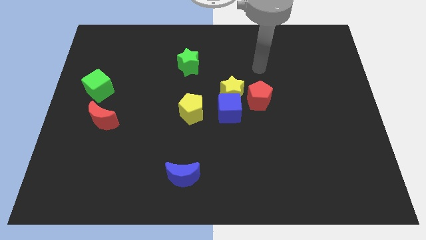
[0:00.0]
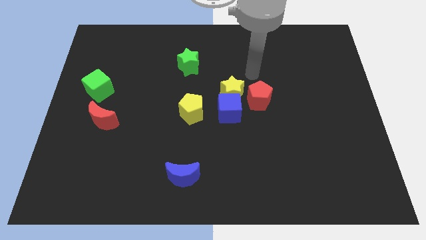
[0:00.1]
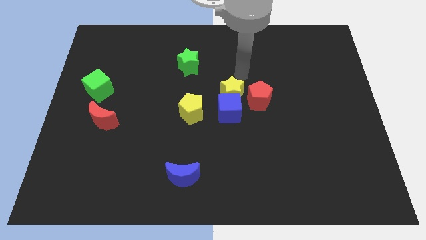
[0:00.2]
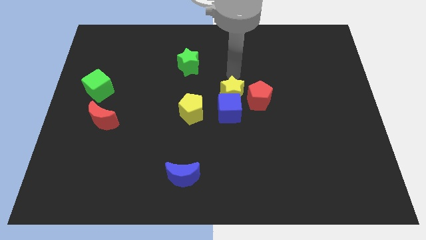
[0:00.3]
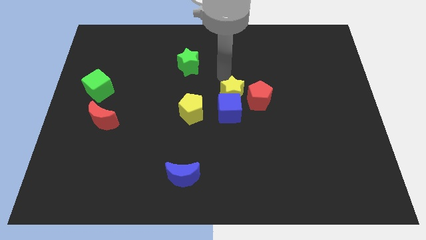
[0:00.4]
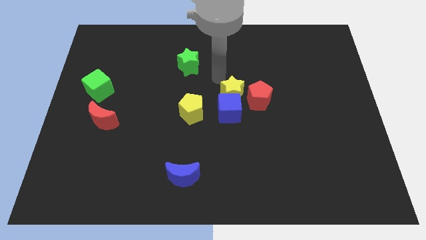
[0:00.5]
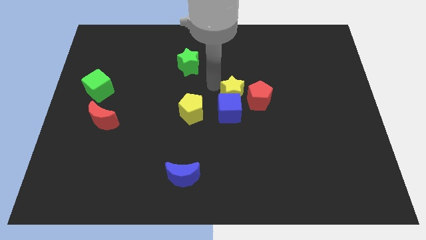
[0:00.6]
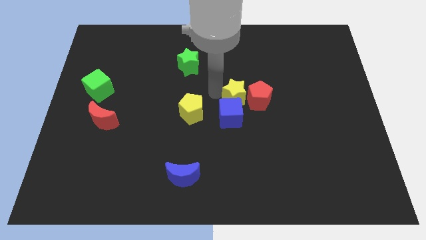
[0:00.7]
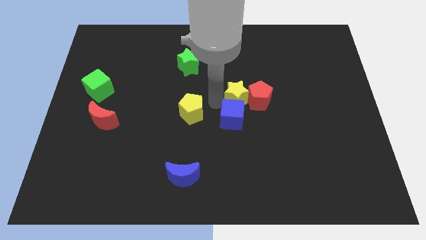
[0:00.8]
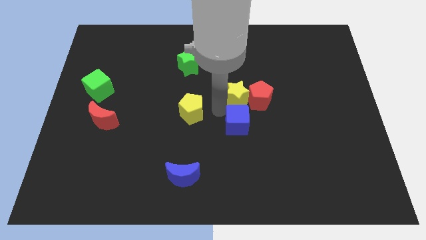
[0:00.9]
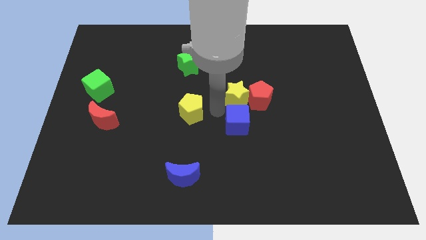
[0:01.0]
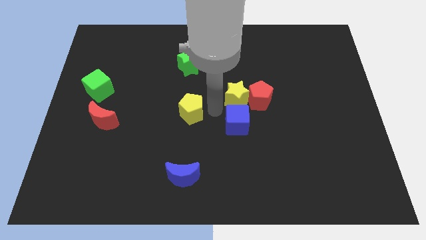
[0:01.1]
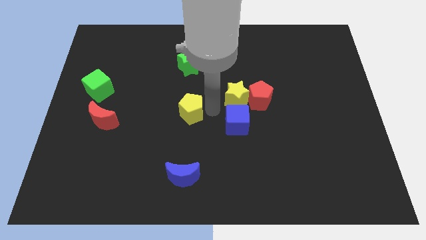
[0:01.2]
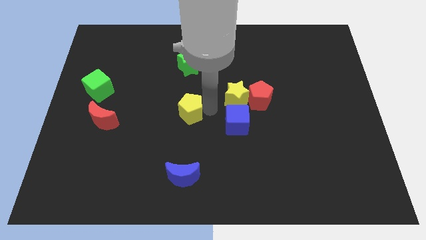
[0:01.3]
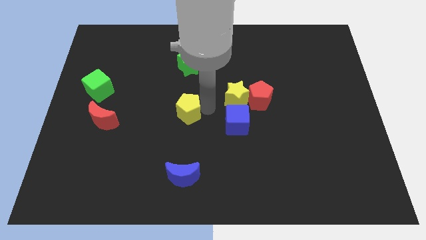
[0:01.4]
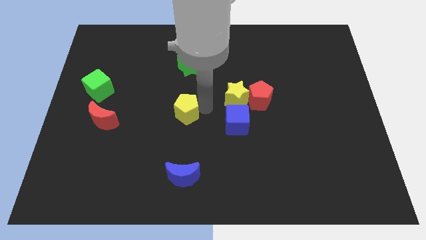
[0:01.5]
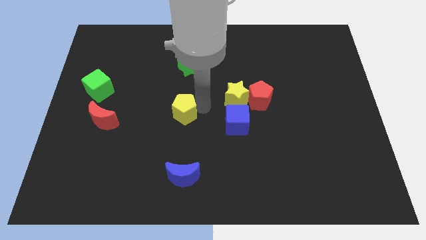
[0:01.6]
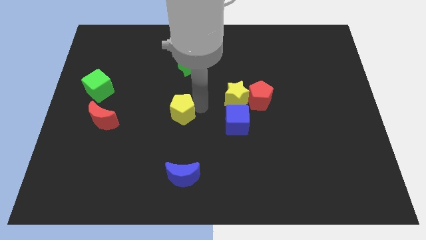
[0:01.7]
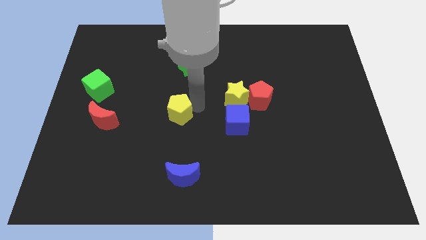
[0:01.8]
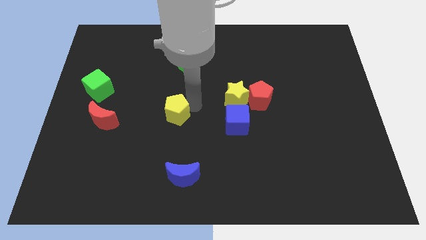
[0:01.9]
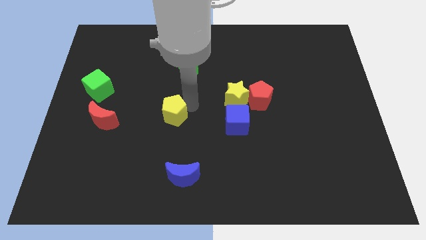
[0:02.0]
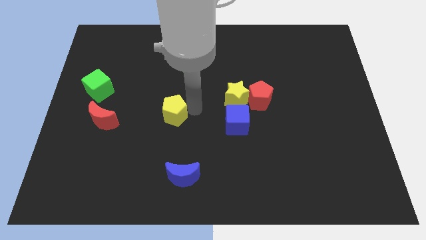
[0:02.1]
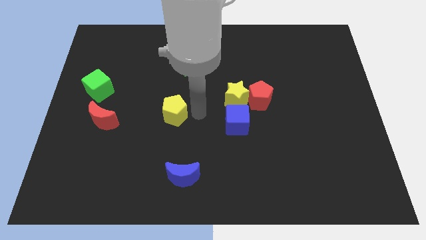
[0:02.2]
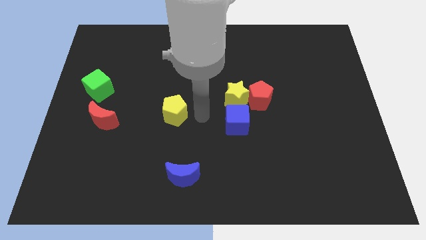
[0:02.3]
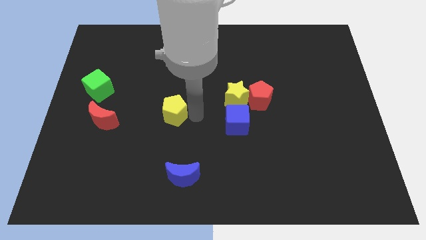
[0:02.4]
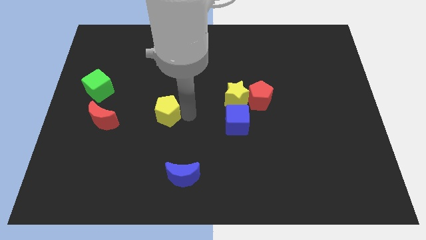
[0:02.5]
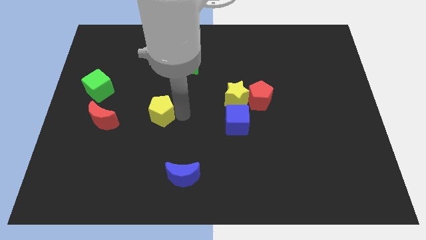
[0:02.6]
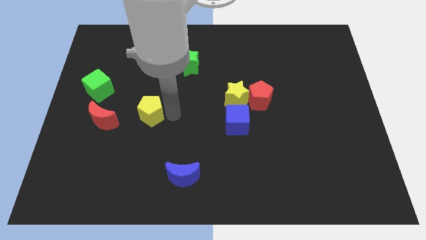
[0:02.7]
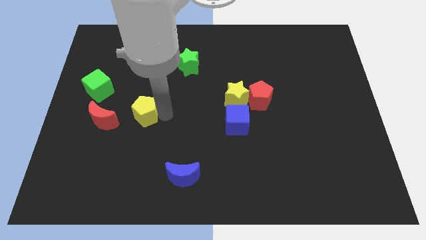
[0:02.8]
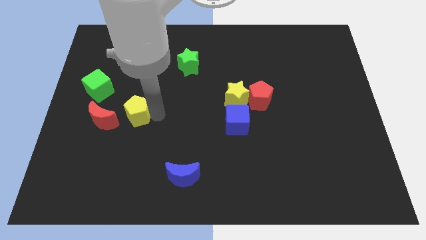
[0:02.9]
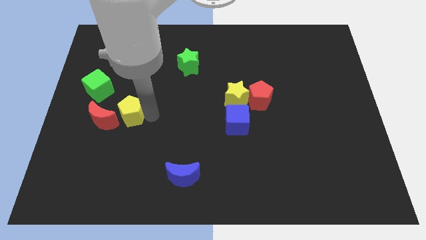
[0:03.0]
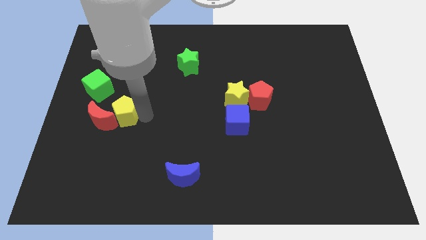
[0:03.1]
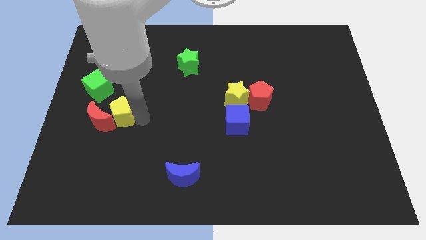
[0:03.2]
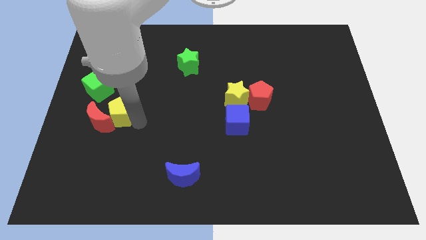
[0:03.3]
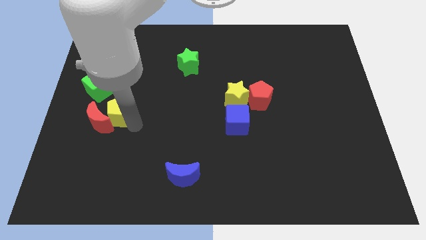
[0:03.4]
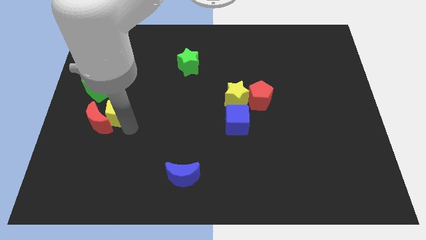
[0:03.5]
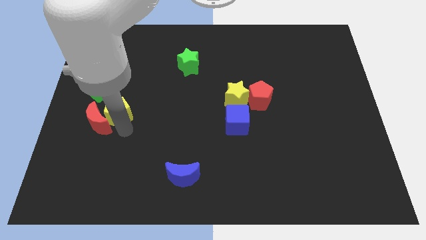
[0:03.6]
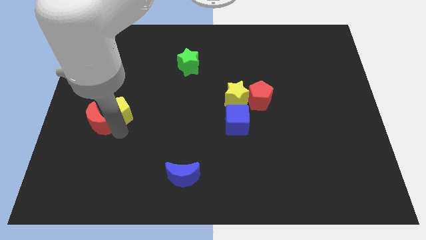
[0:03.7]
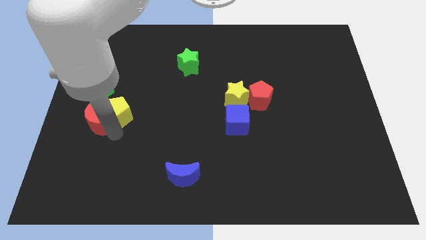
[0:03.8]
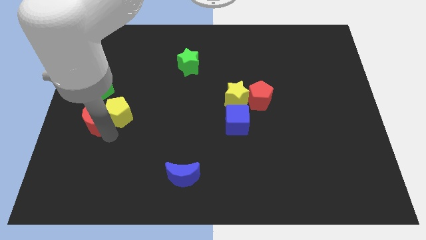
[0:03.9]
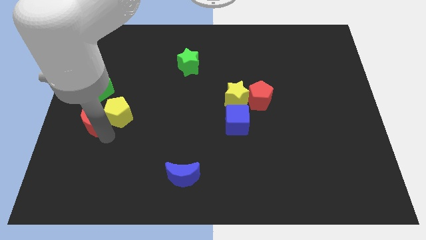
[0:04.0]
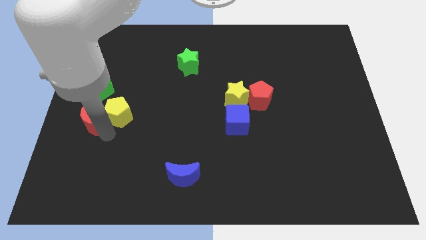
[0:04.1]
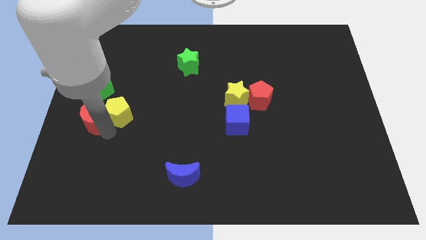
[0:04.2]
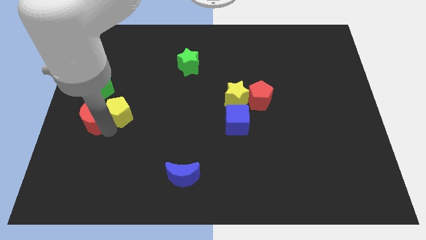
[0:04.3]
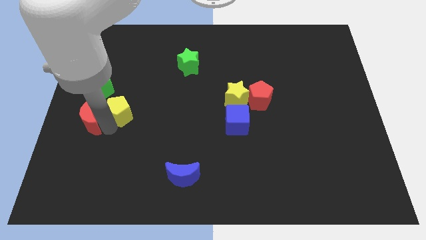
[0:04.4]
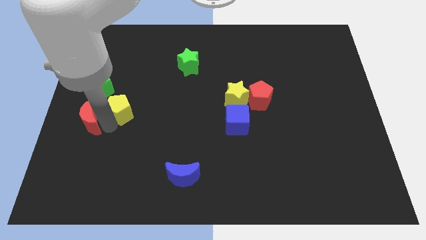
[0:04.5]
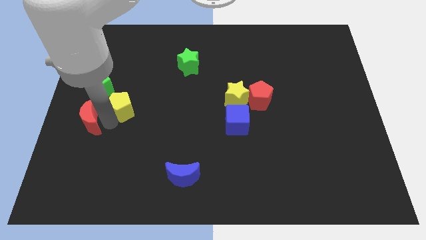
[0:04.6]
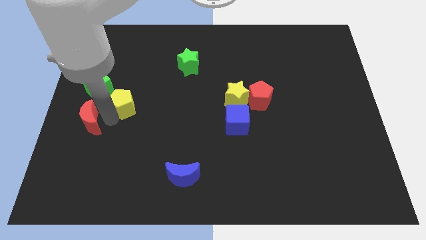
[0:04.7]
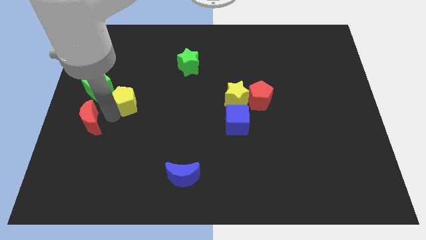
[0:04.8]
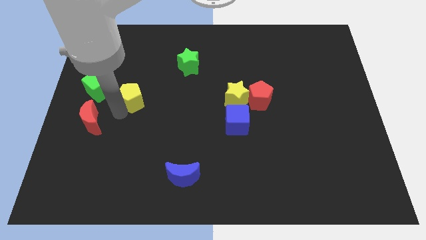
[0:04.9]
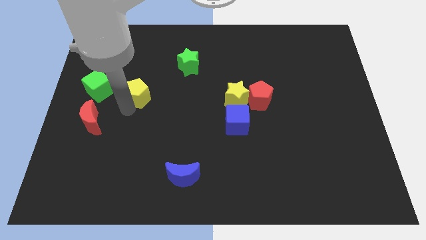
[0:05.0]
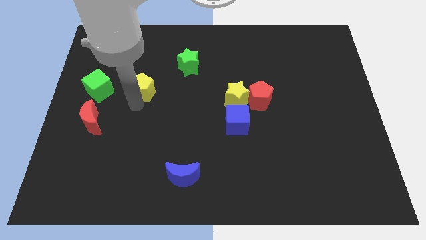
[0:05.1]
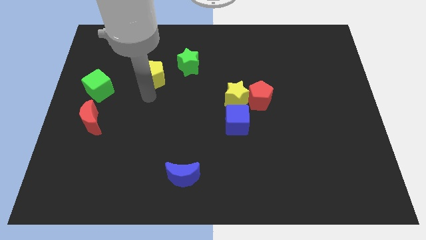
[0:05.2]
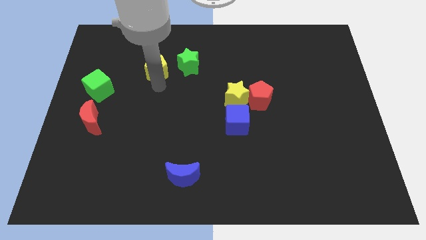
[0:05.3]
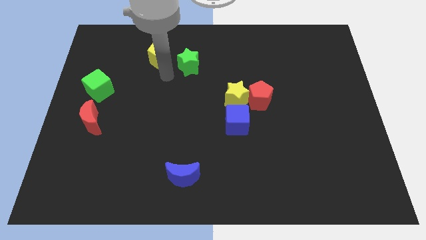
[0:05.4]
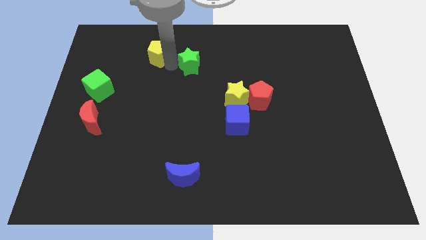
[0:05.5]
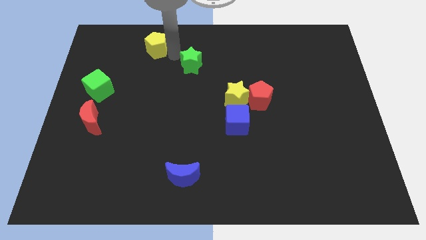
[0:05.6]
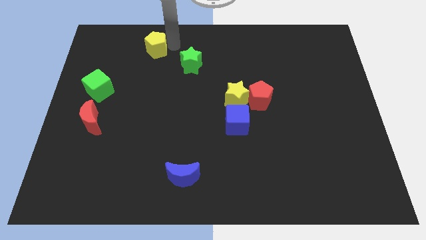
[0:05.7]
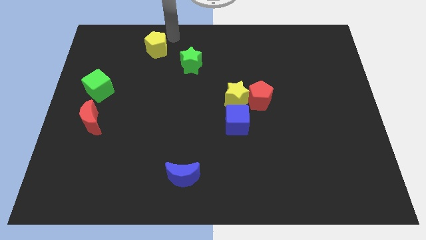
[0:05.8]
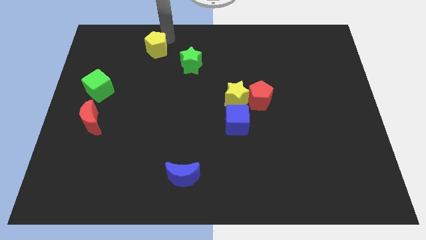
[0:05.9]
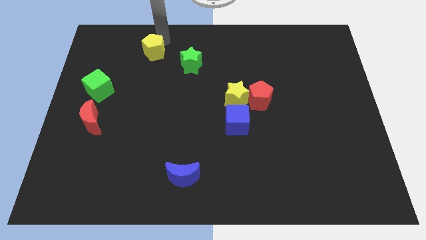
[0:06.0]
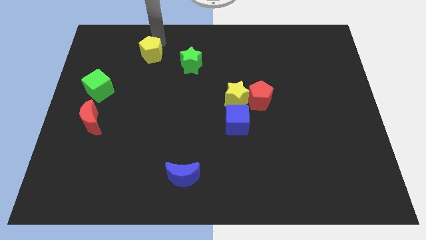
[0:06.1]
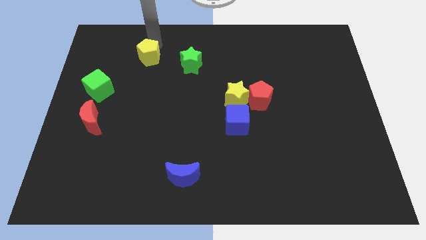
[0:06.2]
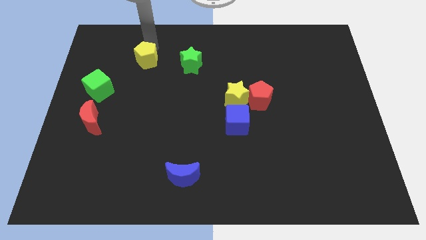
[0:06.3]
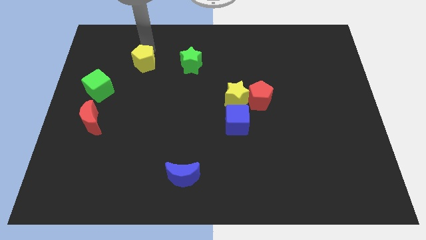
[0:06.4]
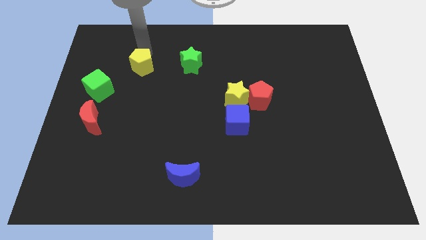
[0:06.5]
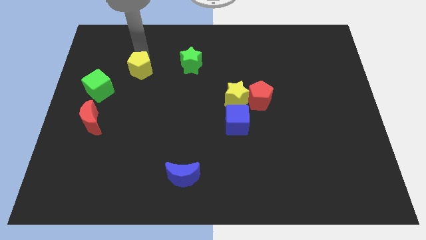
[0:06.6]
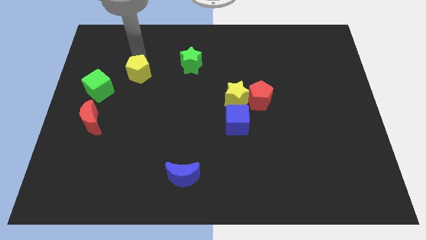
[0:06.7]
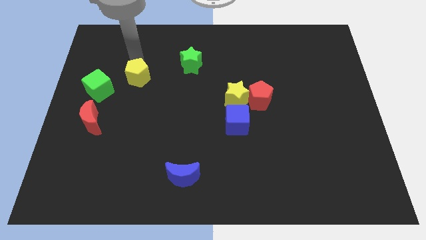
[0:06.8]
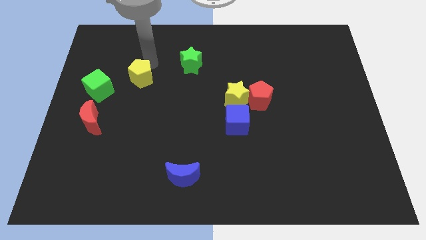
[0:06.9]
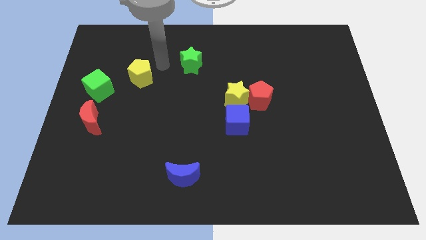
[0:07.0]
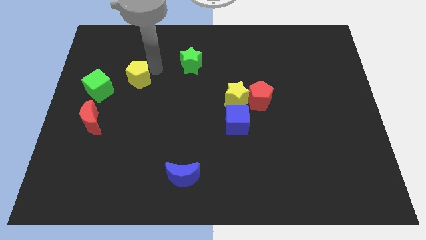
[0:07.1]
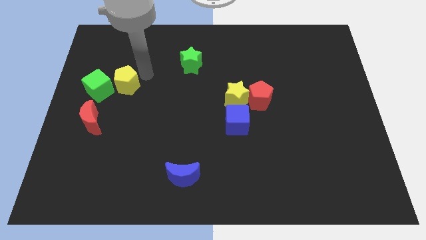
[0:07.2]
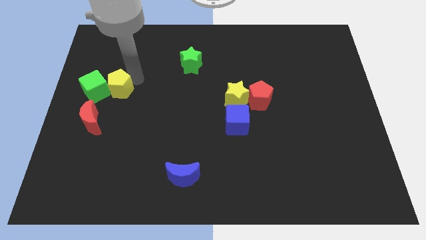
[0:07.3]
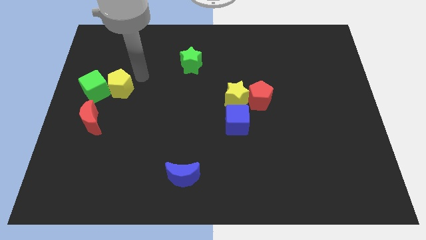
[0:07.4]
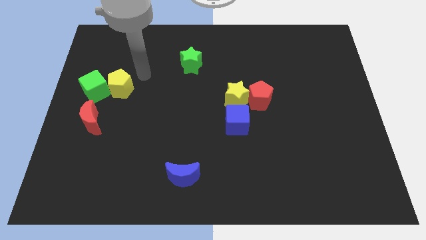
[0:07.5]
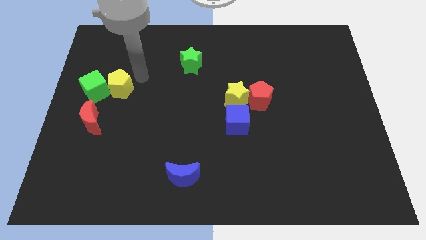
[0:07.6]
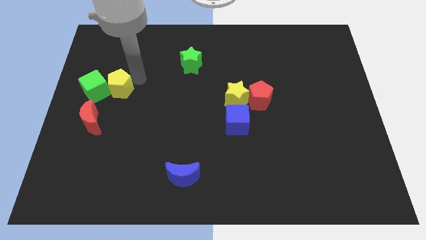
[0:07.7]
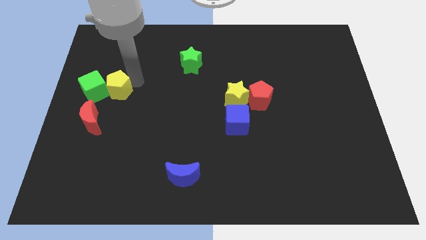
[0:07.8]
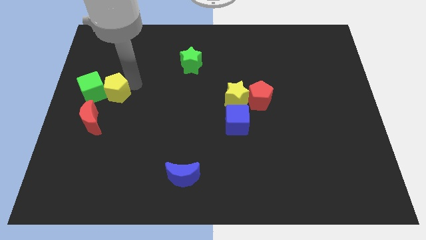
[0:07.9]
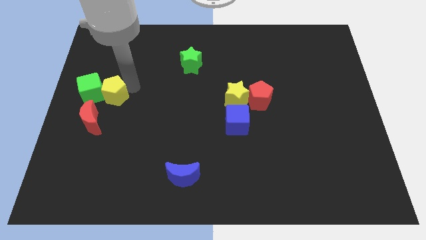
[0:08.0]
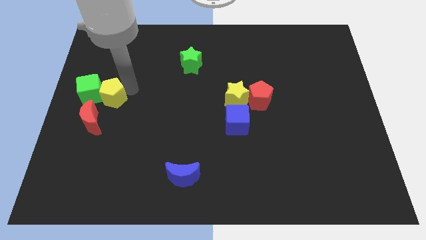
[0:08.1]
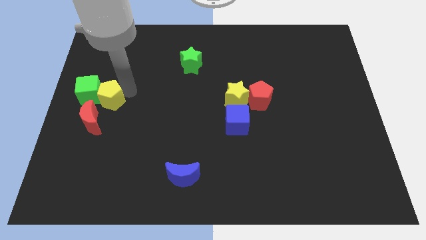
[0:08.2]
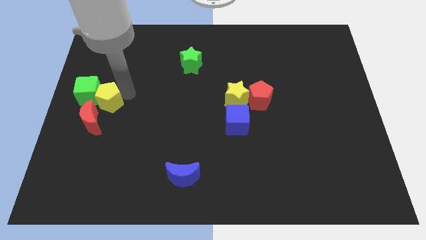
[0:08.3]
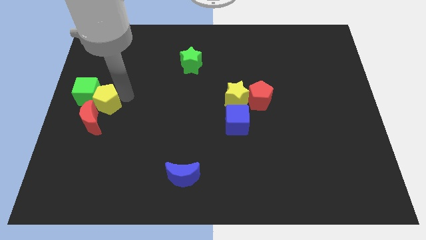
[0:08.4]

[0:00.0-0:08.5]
move the yellow pentagon to the left side
